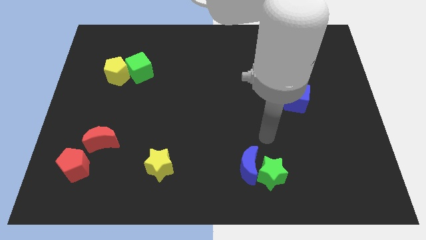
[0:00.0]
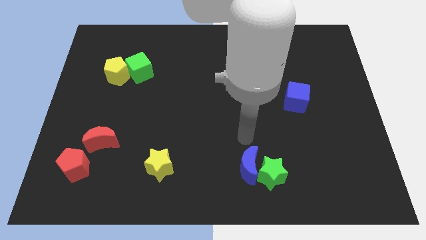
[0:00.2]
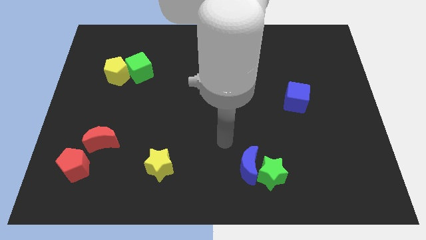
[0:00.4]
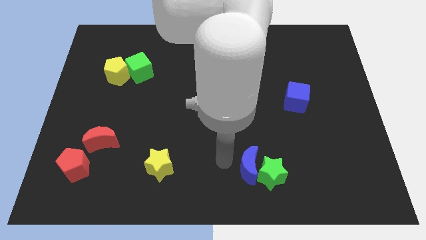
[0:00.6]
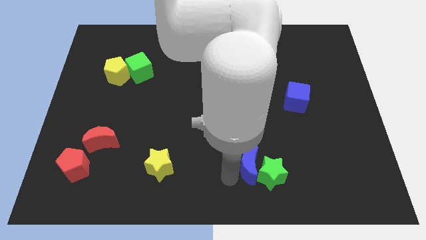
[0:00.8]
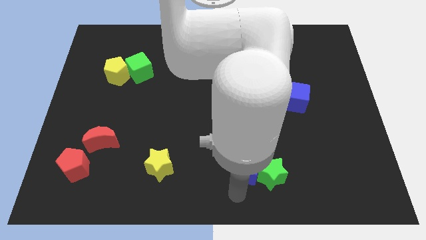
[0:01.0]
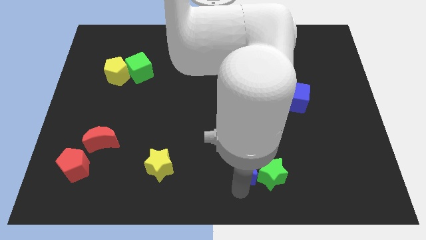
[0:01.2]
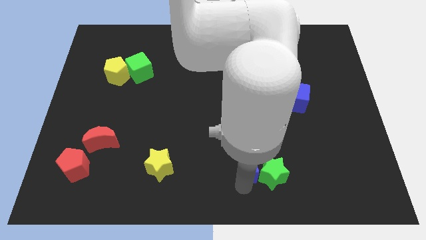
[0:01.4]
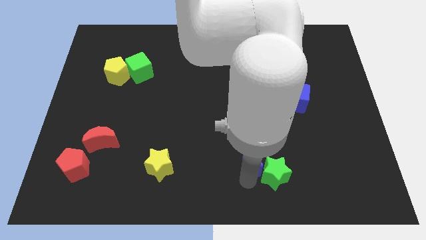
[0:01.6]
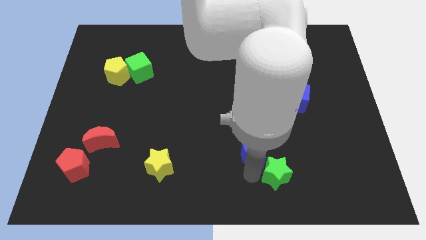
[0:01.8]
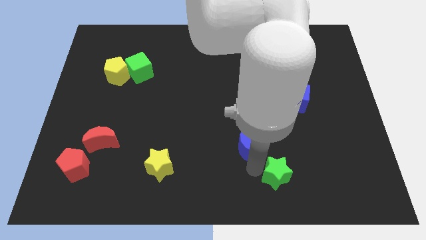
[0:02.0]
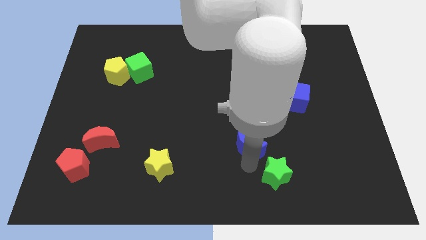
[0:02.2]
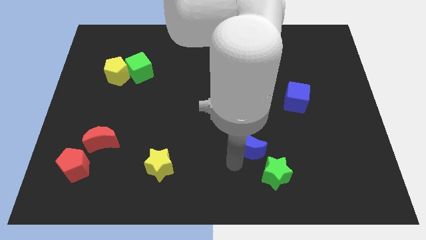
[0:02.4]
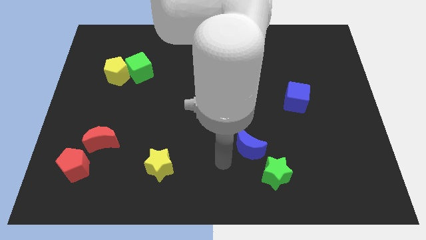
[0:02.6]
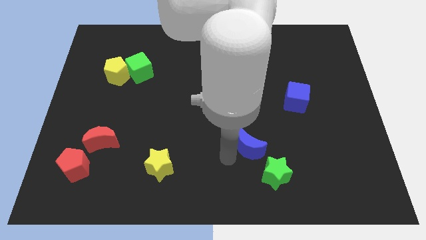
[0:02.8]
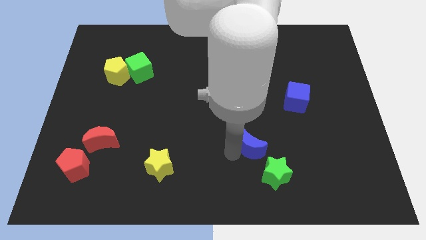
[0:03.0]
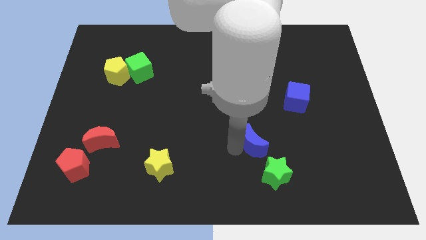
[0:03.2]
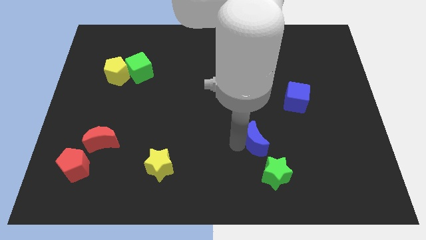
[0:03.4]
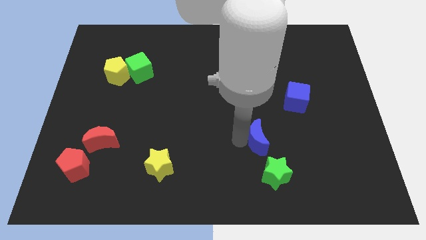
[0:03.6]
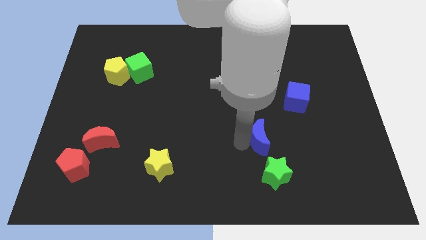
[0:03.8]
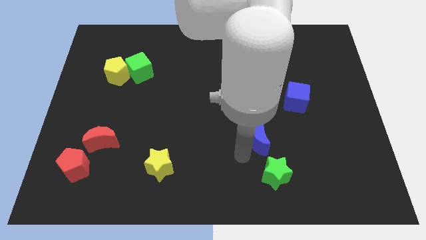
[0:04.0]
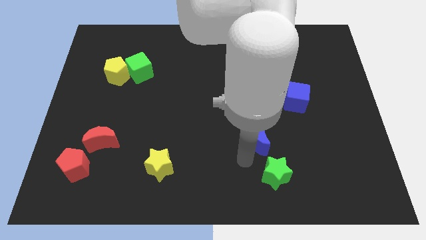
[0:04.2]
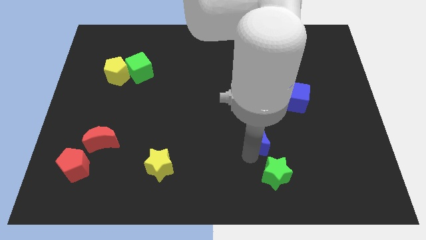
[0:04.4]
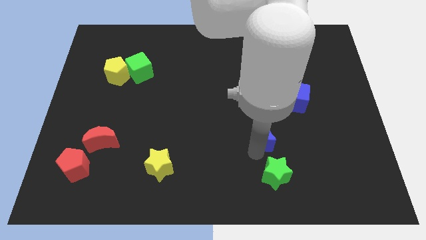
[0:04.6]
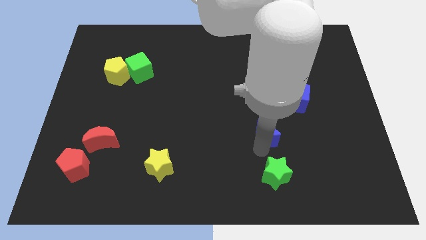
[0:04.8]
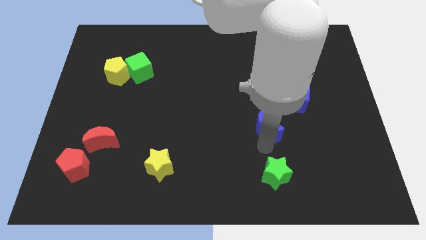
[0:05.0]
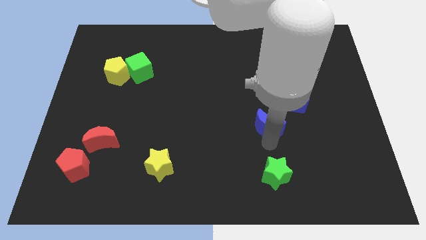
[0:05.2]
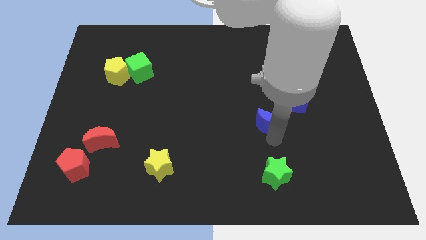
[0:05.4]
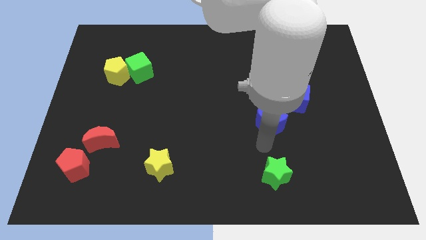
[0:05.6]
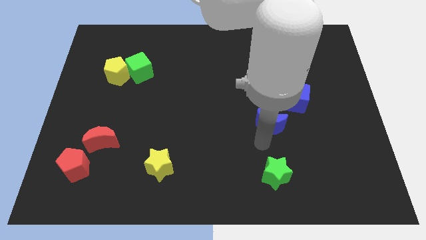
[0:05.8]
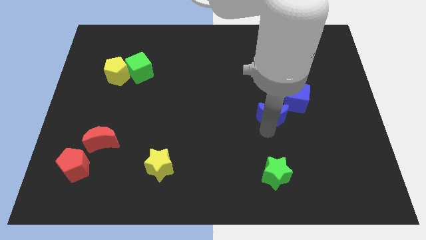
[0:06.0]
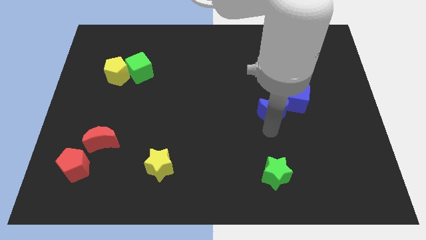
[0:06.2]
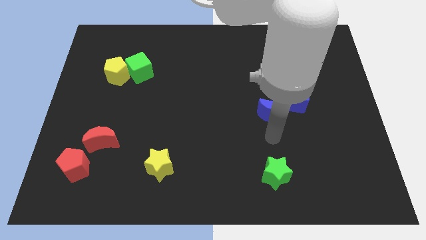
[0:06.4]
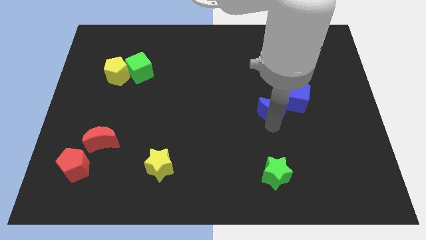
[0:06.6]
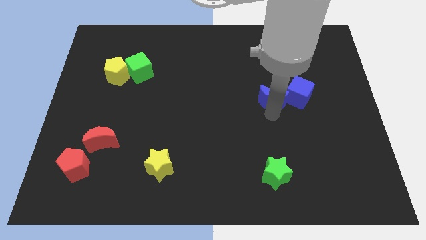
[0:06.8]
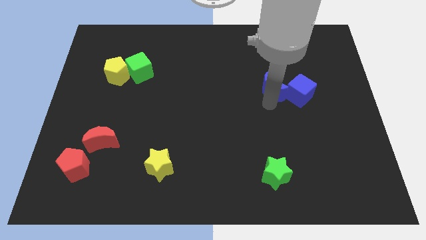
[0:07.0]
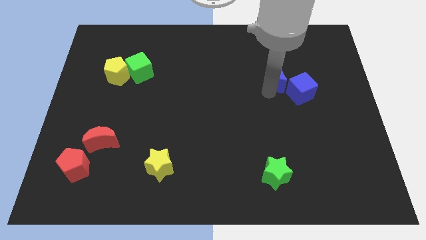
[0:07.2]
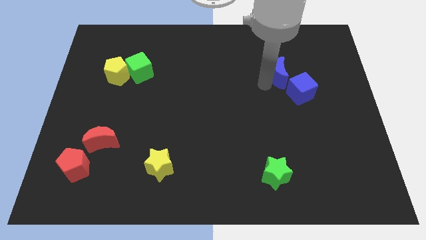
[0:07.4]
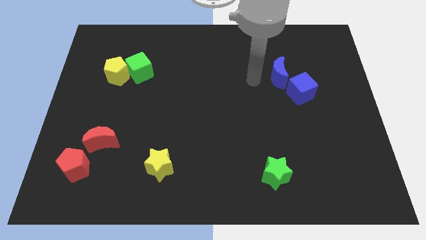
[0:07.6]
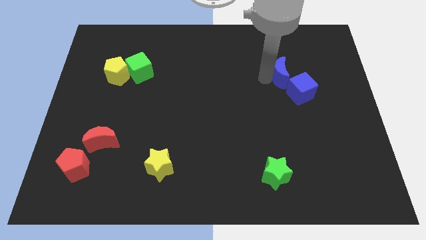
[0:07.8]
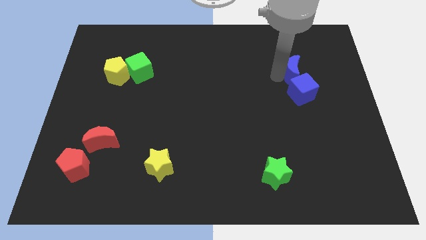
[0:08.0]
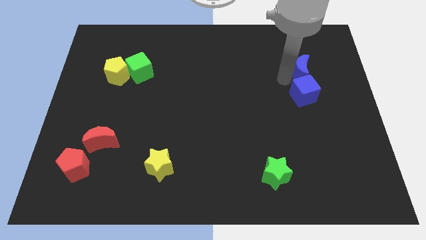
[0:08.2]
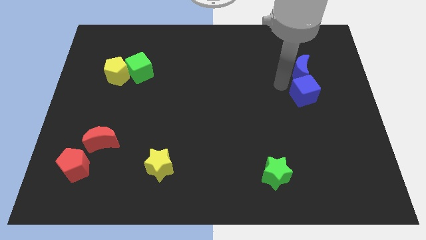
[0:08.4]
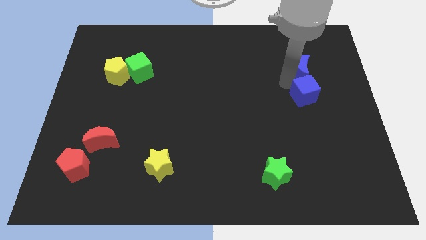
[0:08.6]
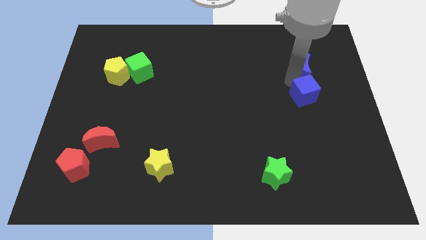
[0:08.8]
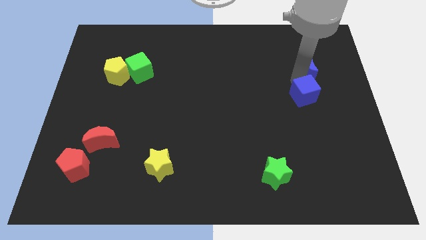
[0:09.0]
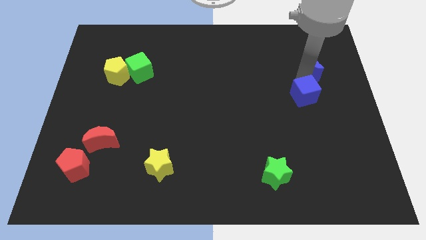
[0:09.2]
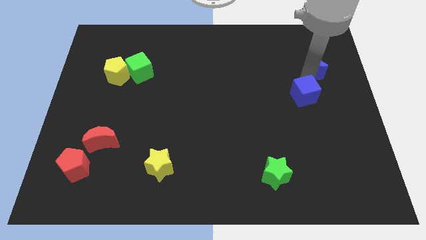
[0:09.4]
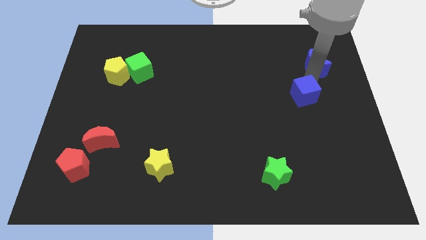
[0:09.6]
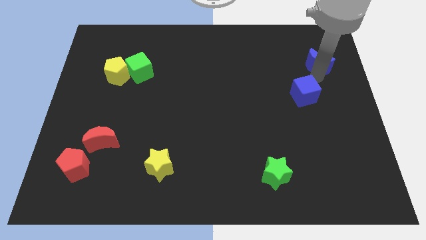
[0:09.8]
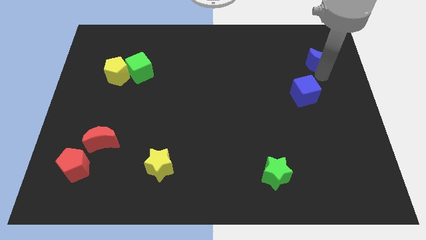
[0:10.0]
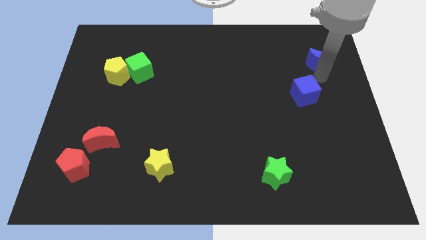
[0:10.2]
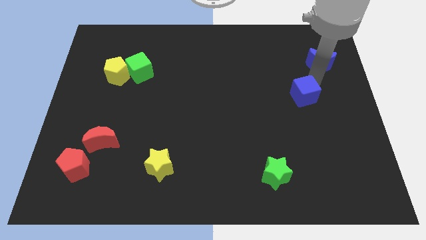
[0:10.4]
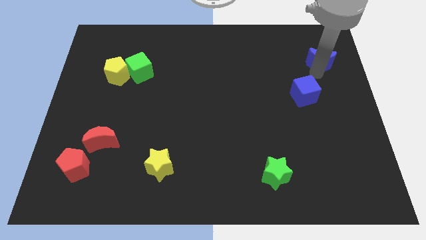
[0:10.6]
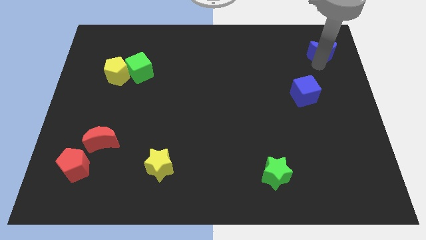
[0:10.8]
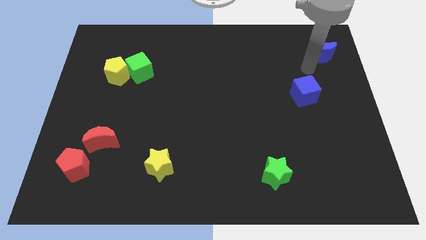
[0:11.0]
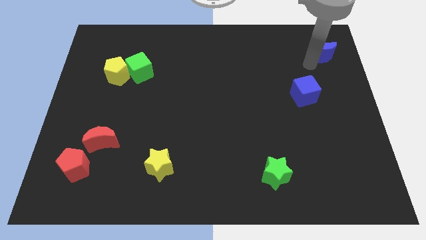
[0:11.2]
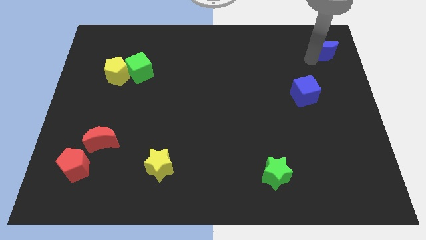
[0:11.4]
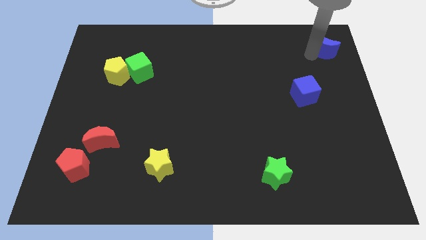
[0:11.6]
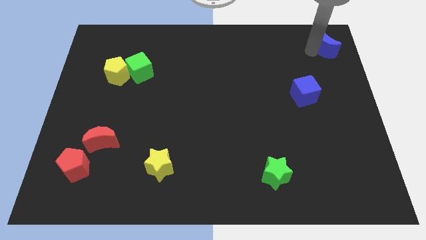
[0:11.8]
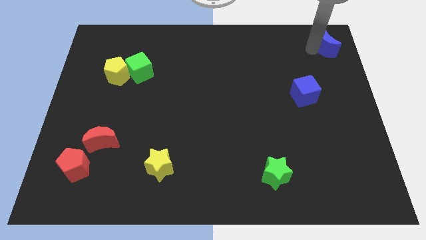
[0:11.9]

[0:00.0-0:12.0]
push the blue moon to the top right
